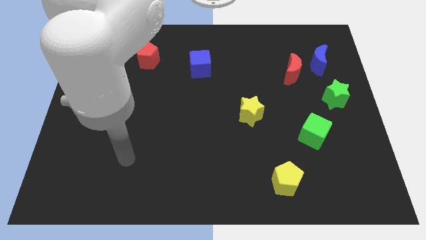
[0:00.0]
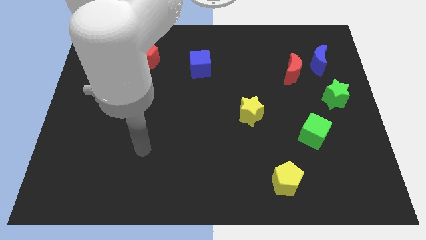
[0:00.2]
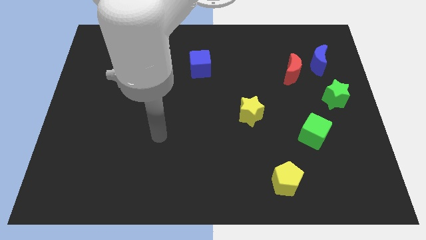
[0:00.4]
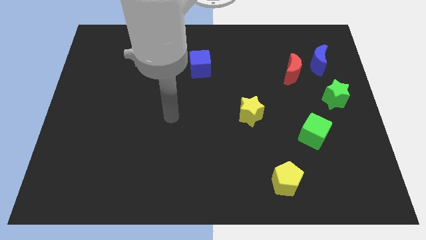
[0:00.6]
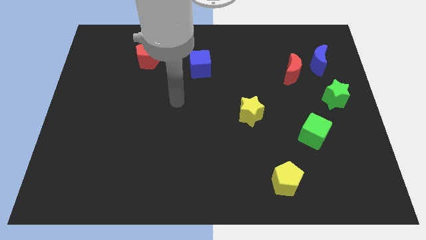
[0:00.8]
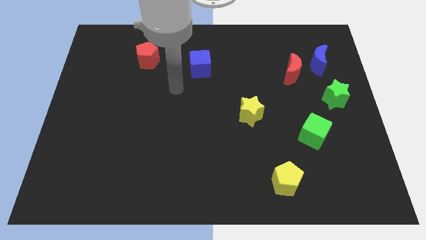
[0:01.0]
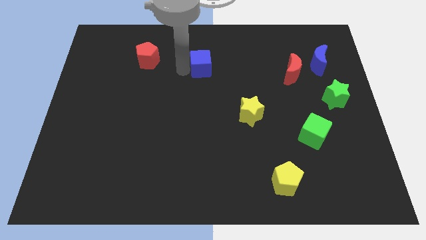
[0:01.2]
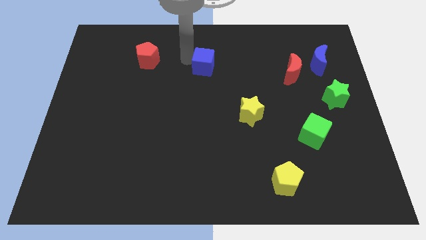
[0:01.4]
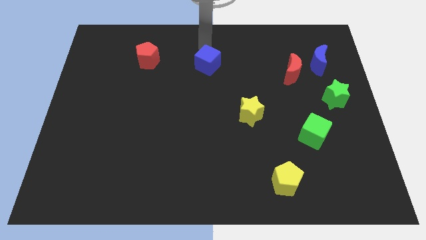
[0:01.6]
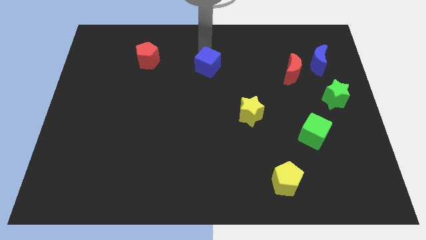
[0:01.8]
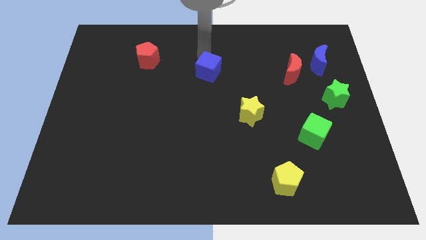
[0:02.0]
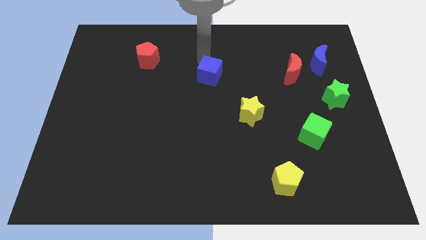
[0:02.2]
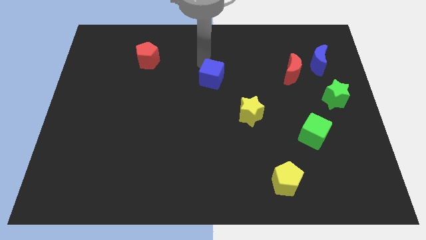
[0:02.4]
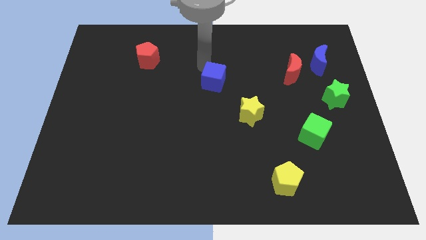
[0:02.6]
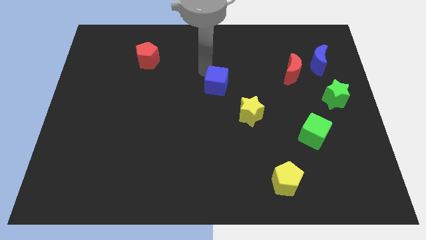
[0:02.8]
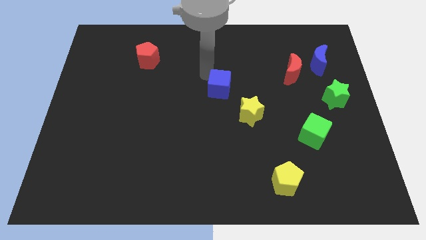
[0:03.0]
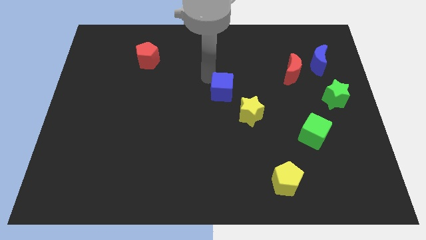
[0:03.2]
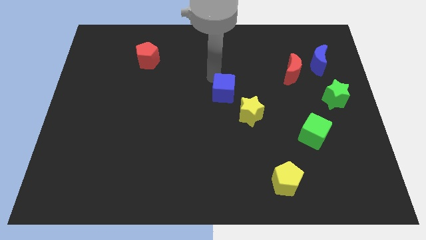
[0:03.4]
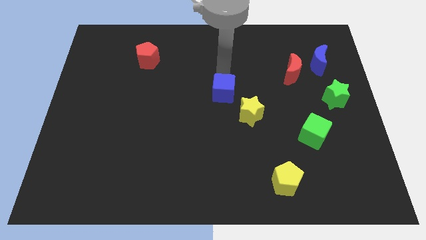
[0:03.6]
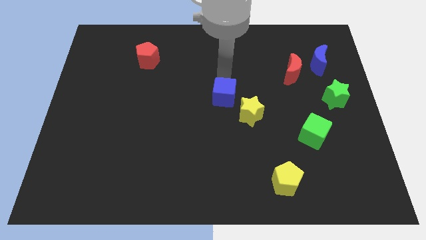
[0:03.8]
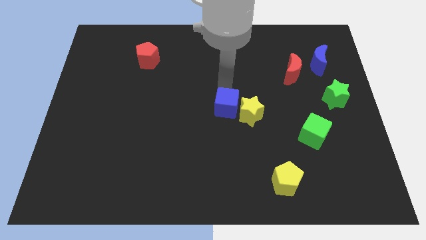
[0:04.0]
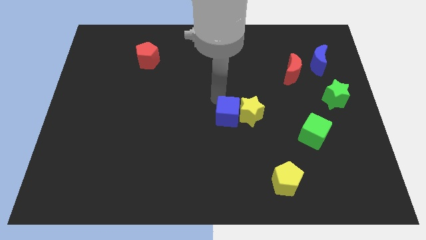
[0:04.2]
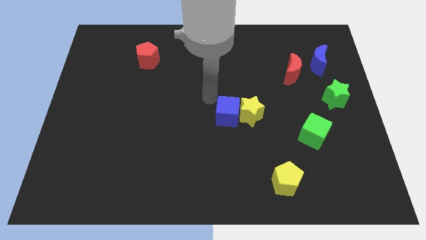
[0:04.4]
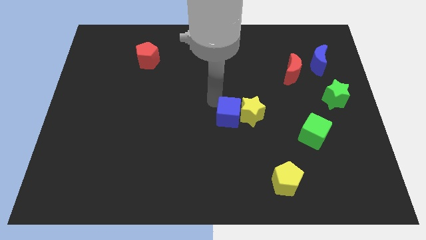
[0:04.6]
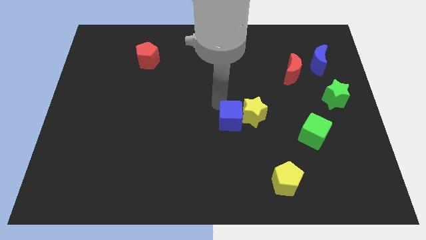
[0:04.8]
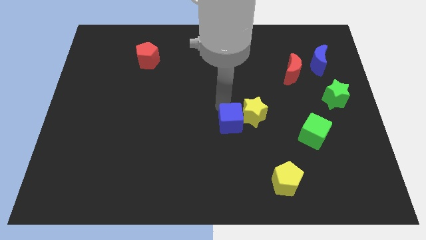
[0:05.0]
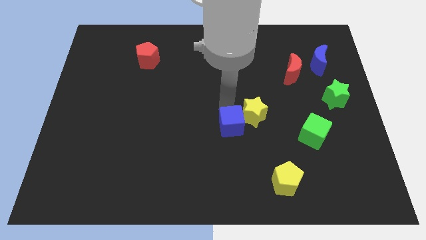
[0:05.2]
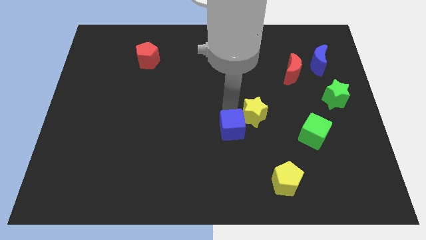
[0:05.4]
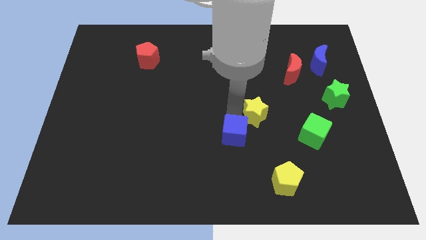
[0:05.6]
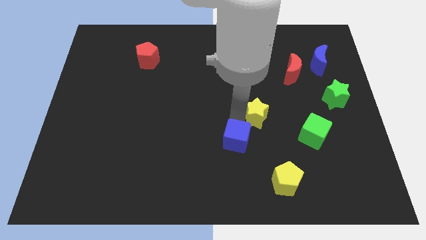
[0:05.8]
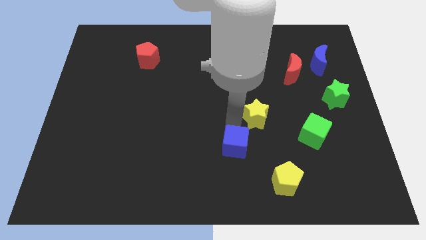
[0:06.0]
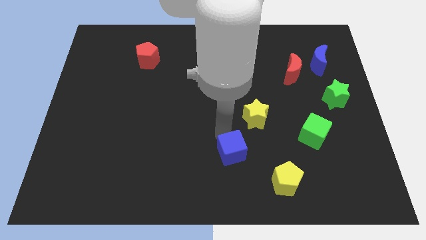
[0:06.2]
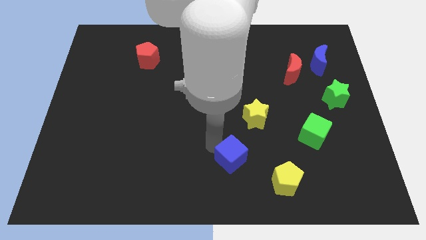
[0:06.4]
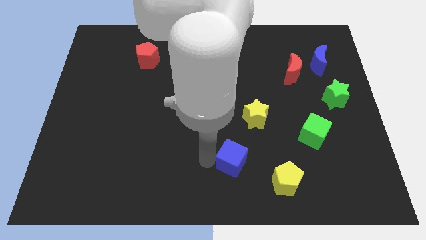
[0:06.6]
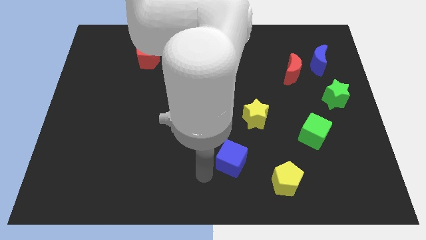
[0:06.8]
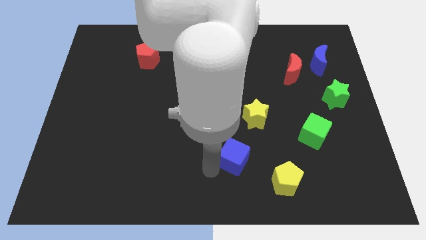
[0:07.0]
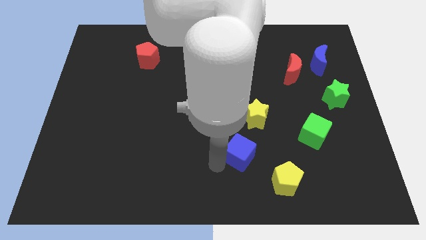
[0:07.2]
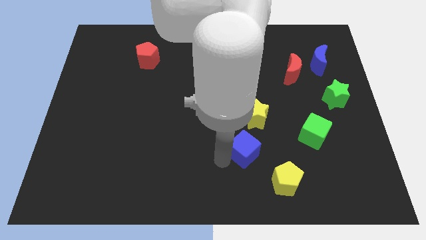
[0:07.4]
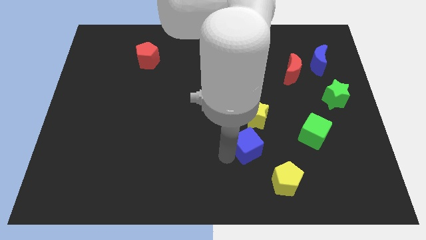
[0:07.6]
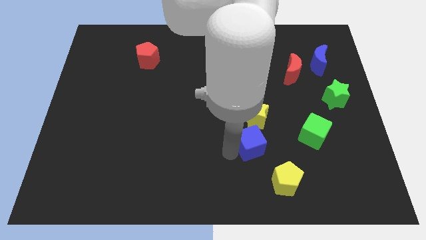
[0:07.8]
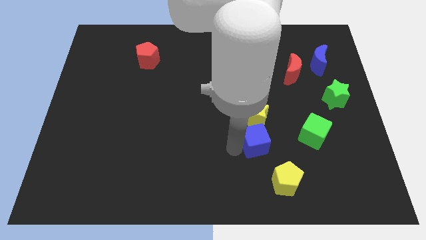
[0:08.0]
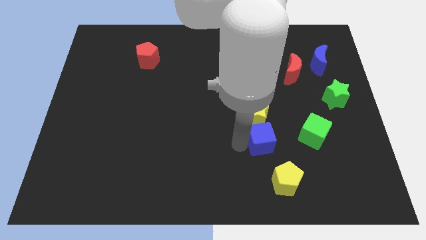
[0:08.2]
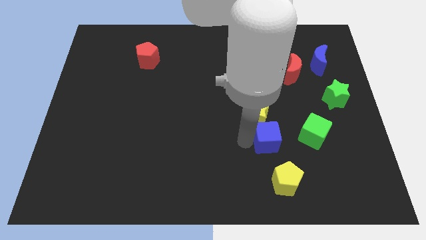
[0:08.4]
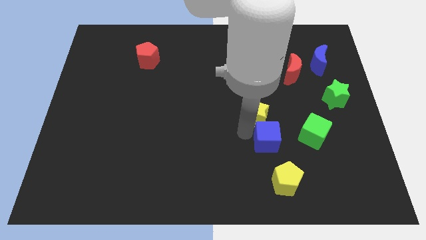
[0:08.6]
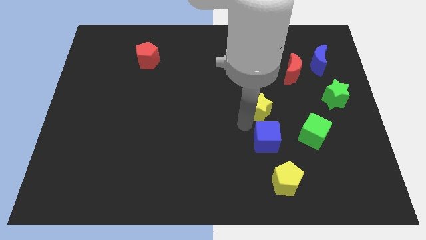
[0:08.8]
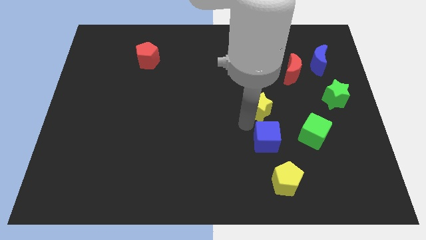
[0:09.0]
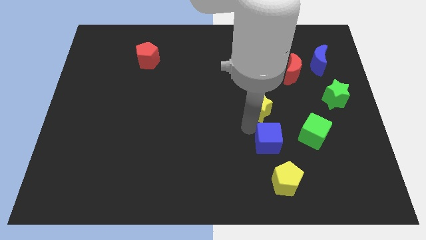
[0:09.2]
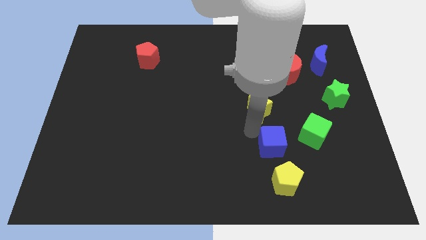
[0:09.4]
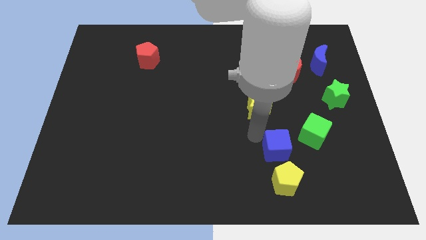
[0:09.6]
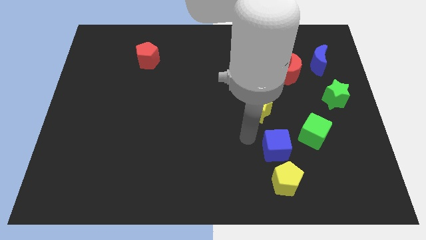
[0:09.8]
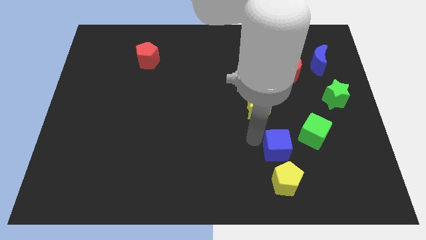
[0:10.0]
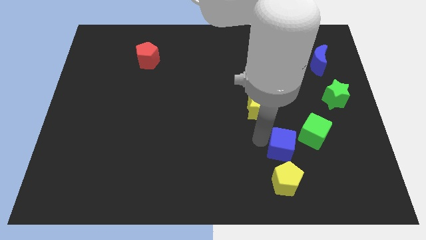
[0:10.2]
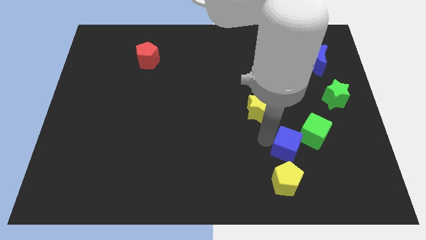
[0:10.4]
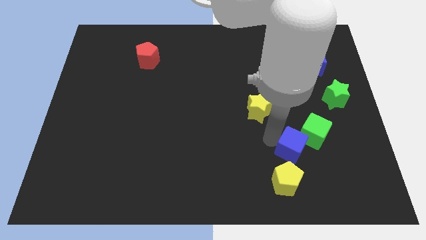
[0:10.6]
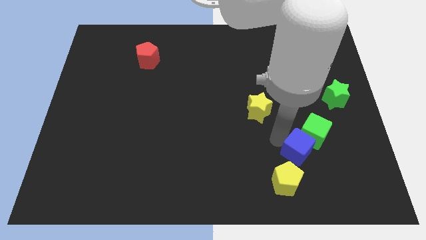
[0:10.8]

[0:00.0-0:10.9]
move the blue cube below the green cube

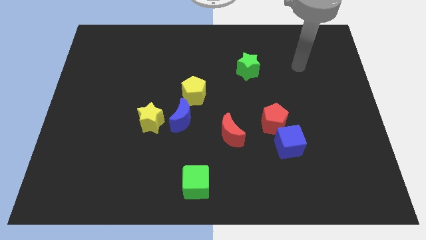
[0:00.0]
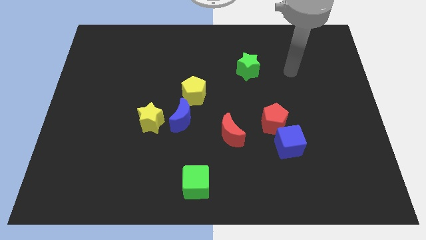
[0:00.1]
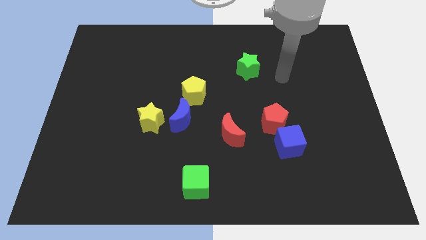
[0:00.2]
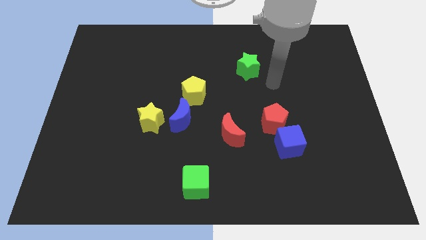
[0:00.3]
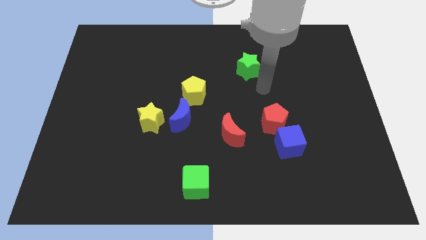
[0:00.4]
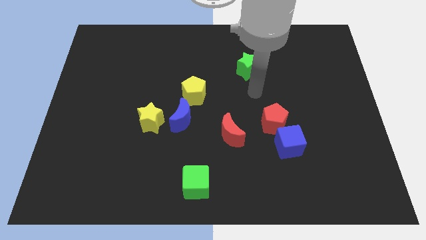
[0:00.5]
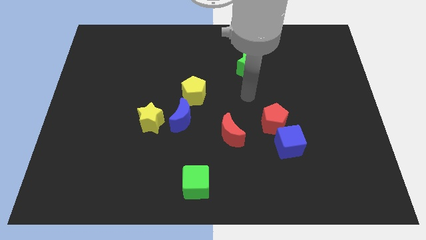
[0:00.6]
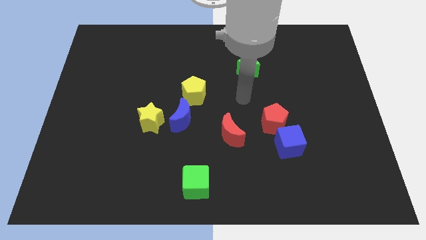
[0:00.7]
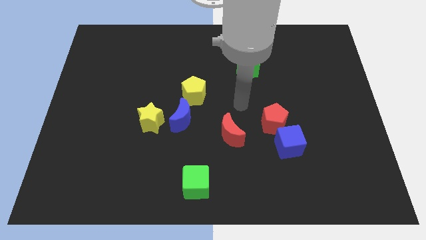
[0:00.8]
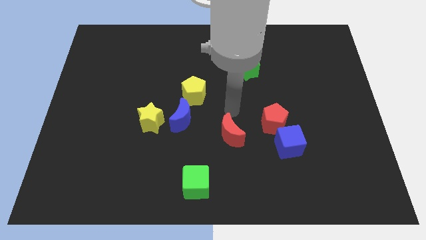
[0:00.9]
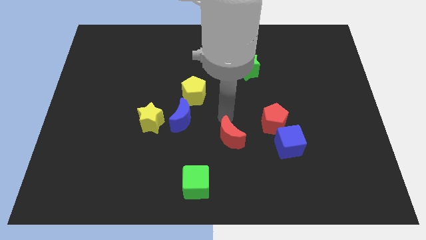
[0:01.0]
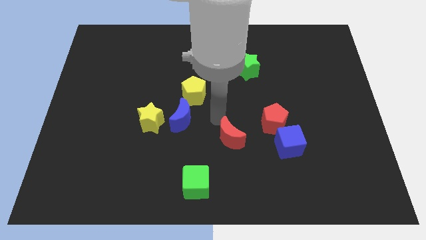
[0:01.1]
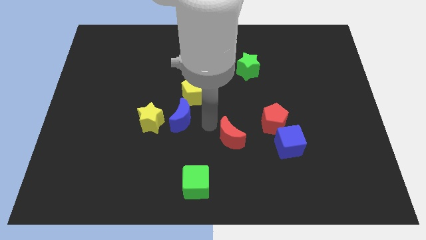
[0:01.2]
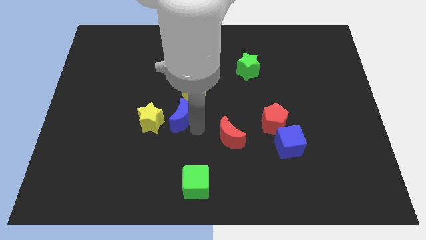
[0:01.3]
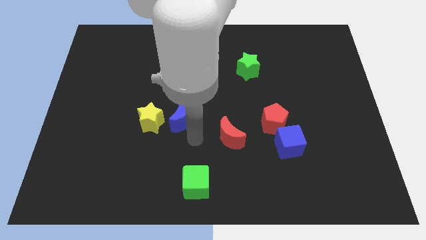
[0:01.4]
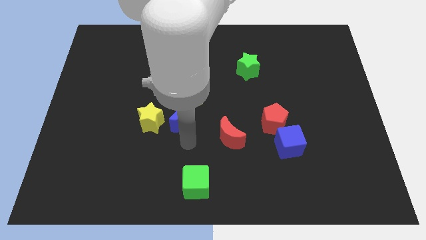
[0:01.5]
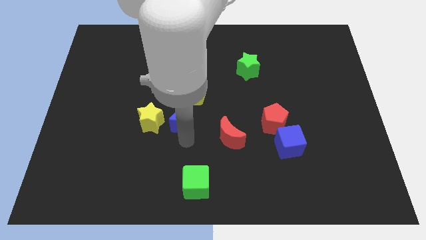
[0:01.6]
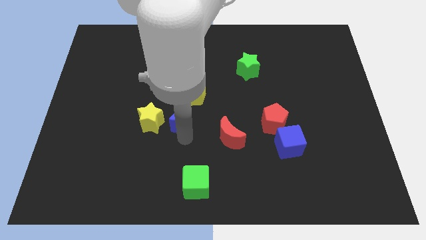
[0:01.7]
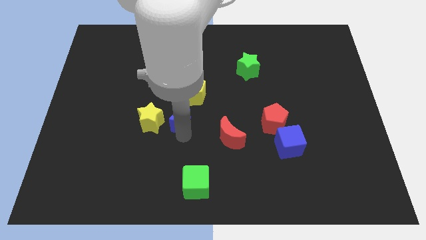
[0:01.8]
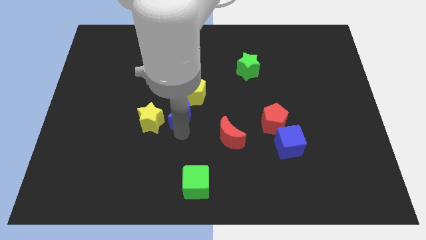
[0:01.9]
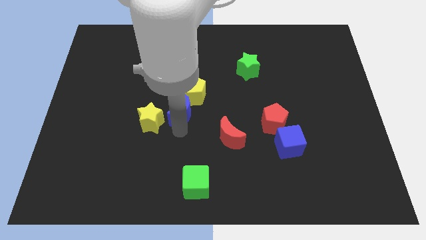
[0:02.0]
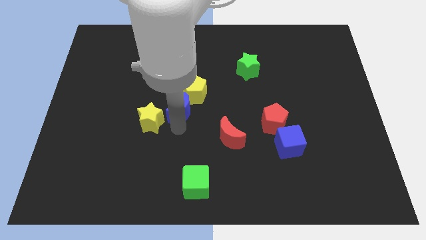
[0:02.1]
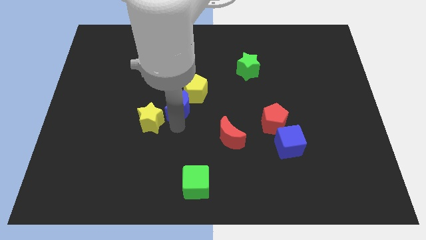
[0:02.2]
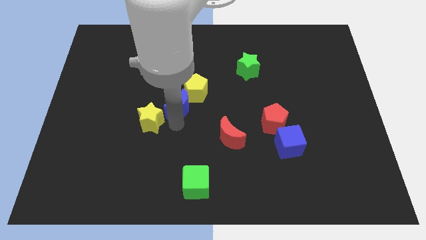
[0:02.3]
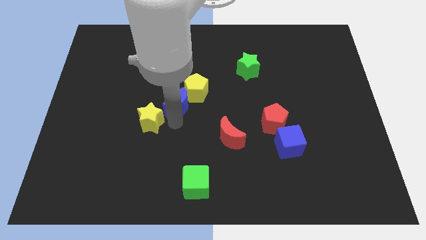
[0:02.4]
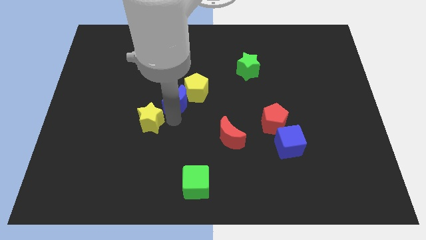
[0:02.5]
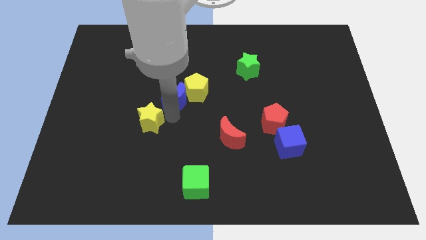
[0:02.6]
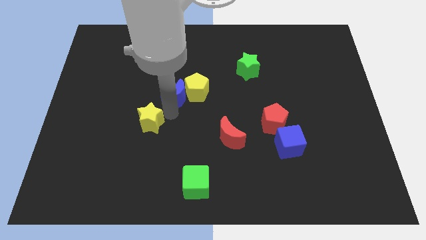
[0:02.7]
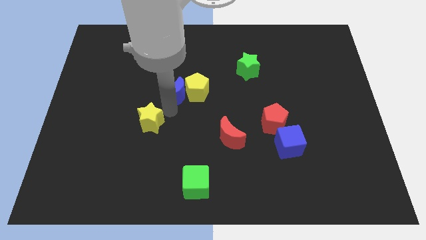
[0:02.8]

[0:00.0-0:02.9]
move the blue moon to the top left side of the yellow pentagon
